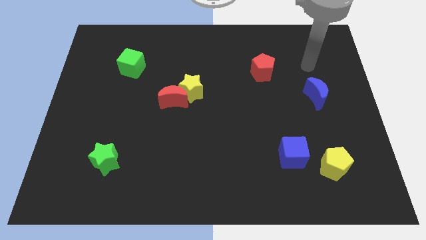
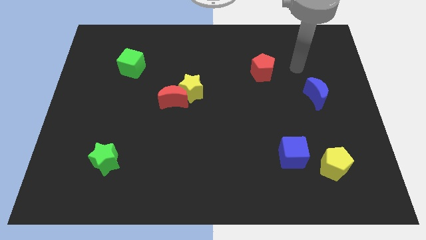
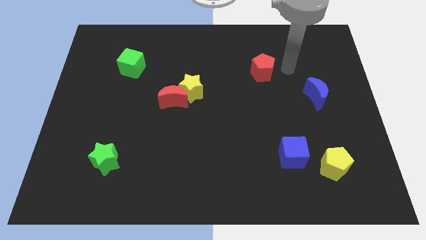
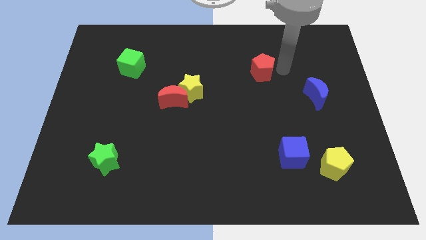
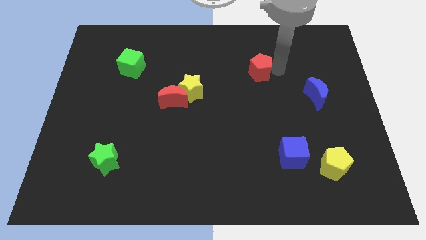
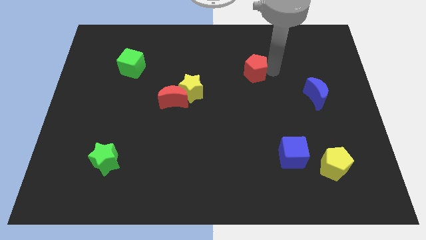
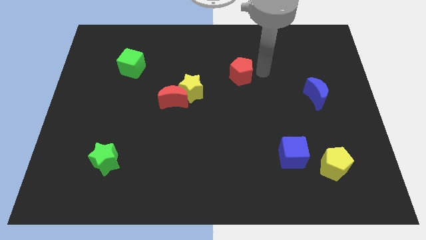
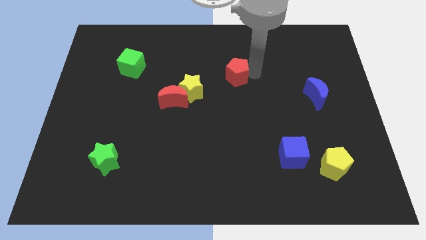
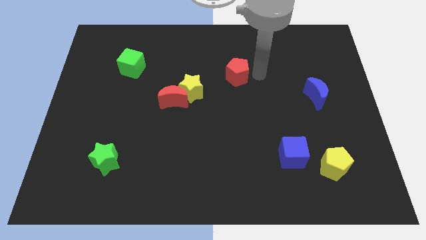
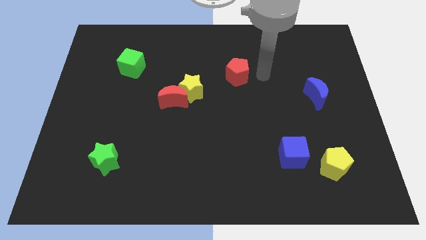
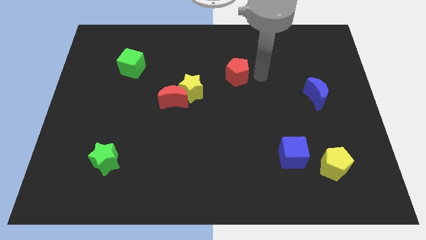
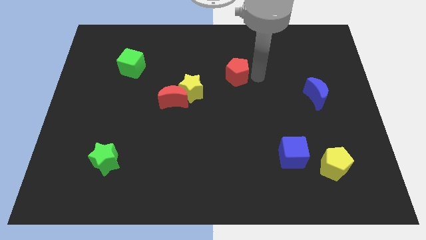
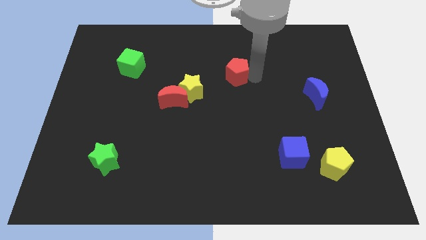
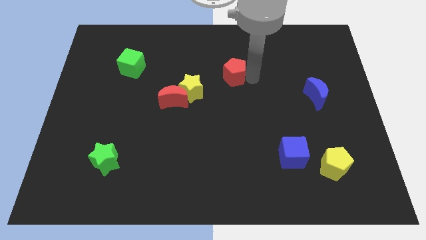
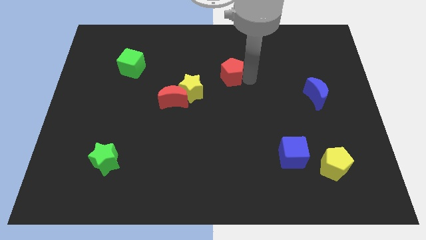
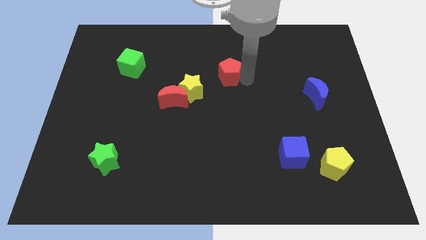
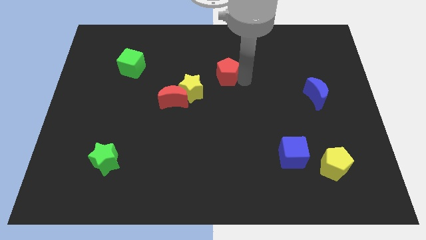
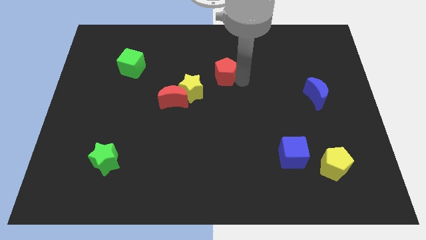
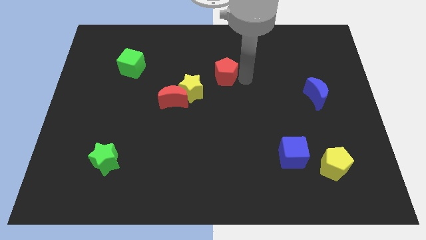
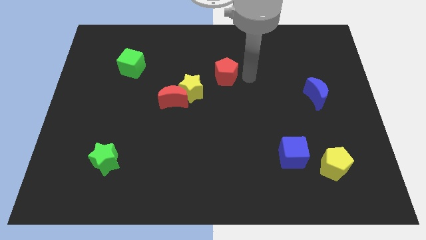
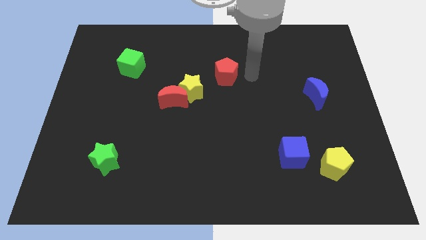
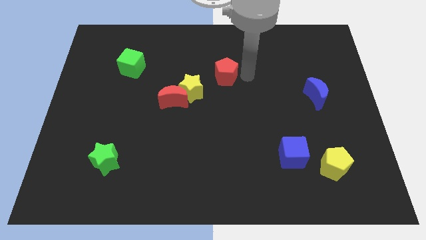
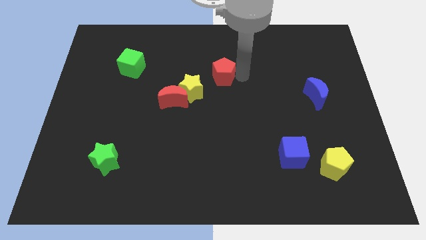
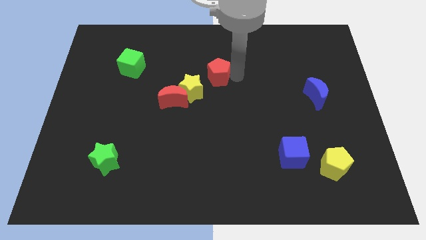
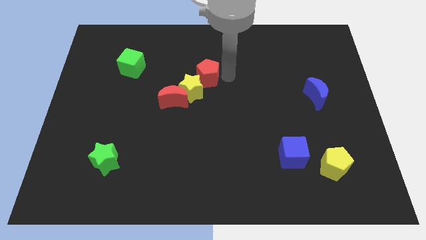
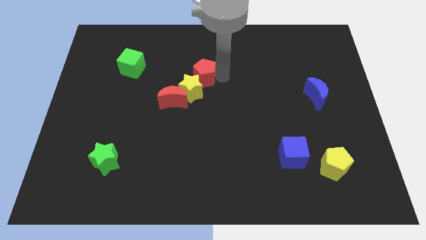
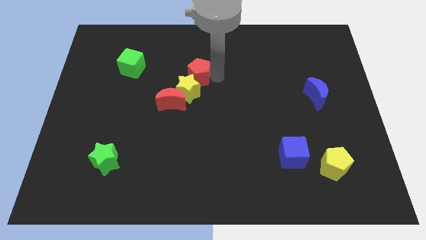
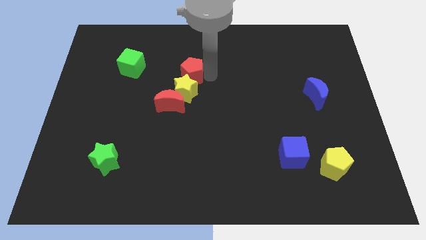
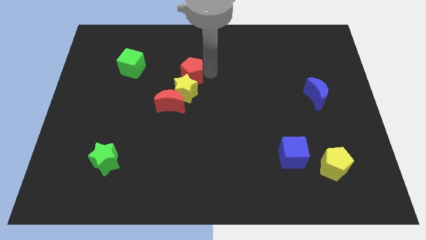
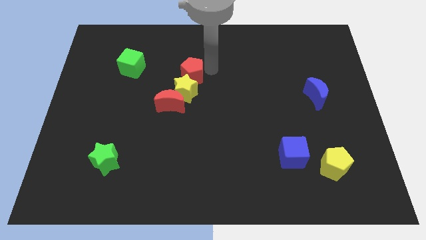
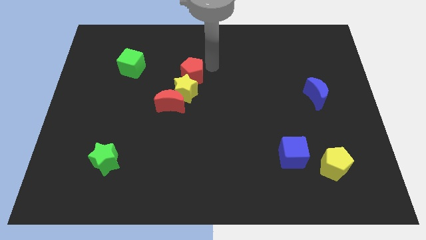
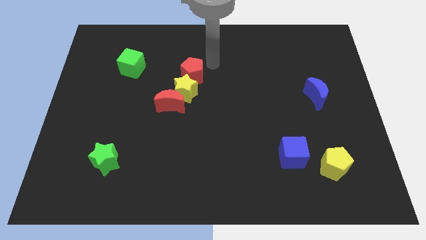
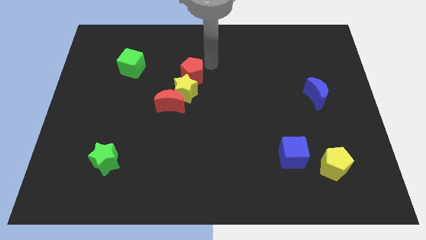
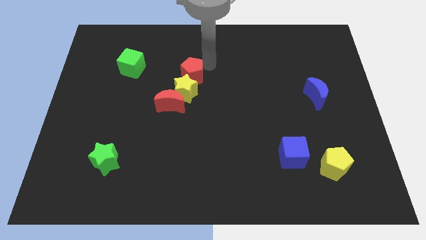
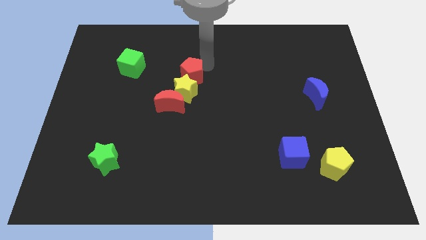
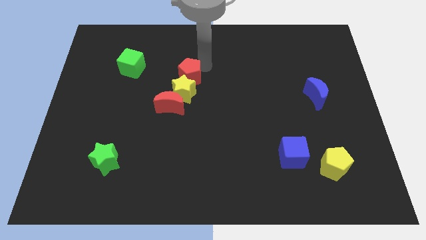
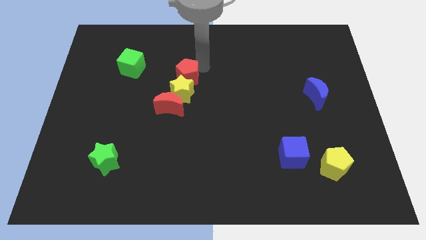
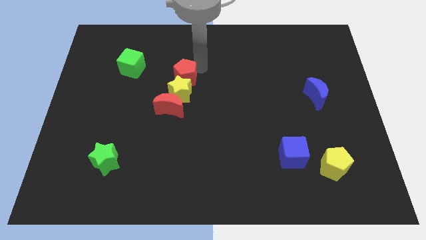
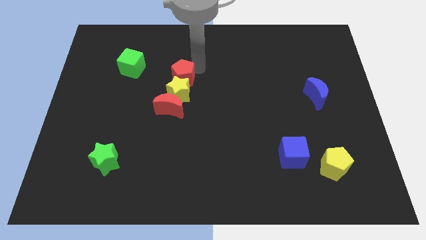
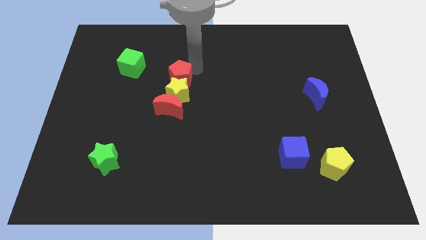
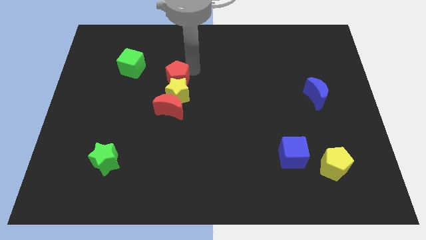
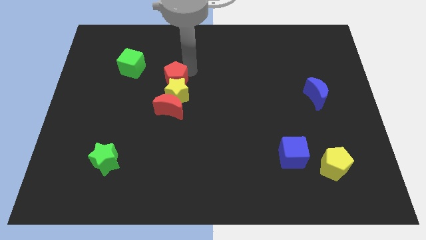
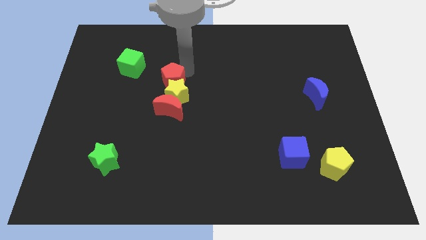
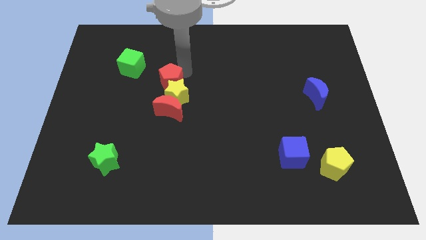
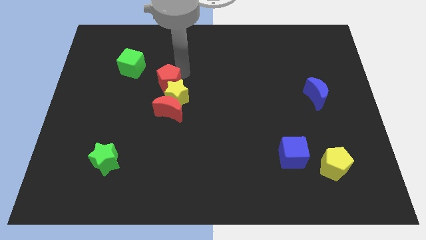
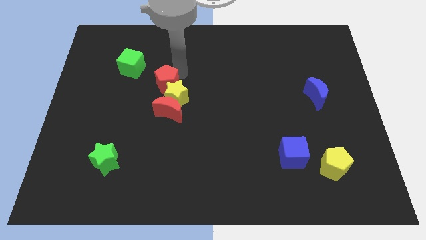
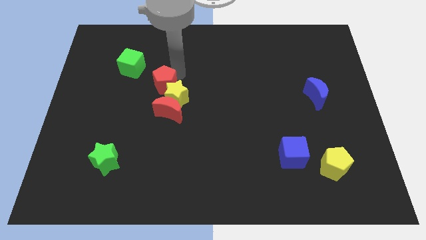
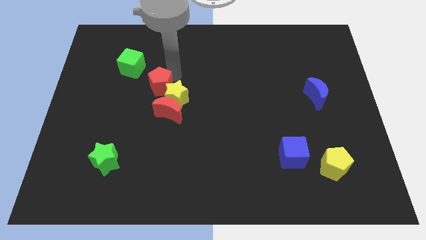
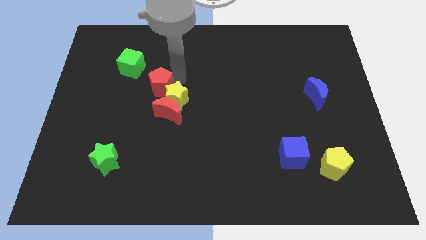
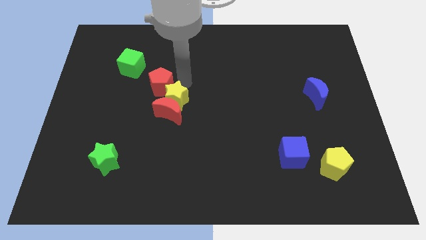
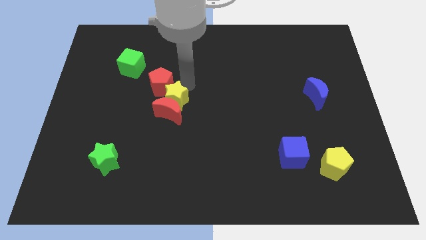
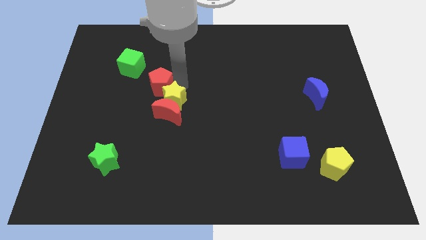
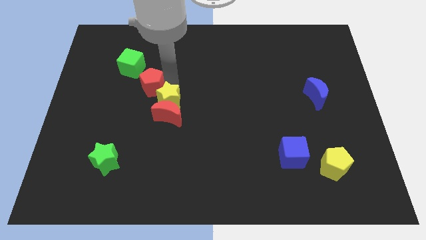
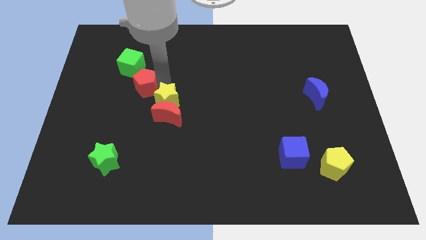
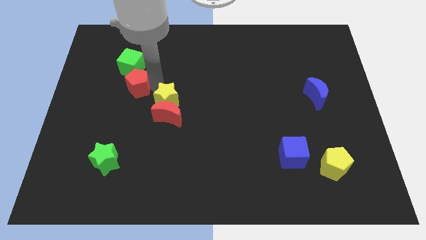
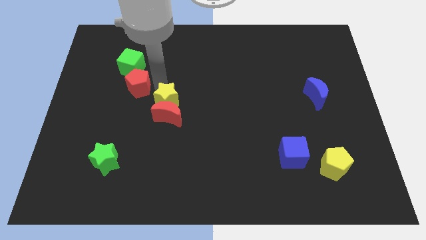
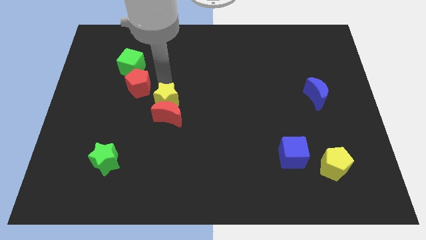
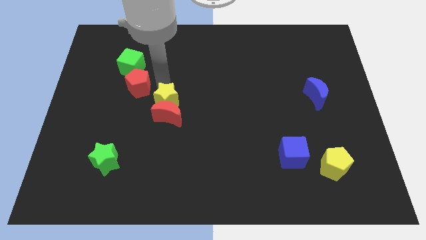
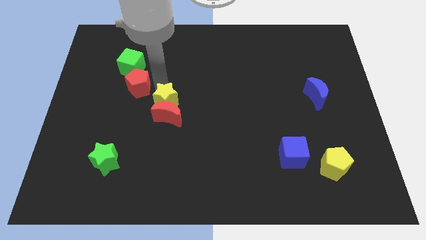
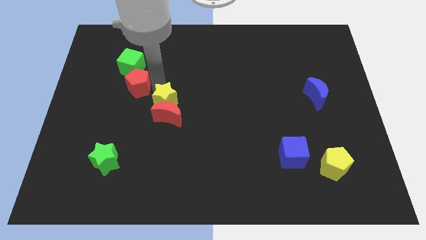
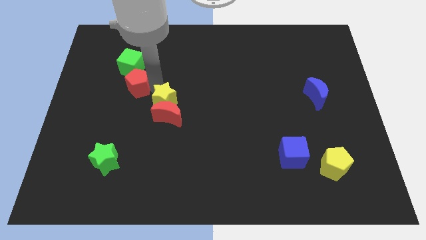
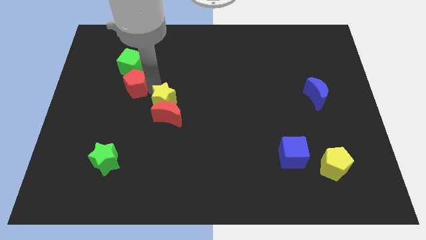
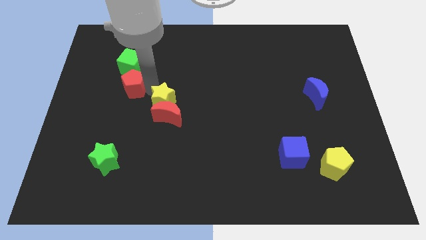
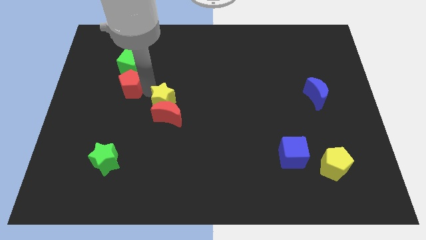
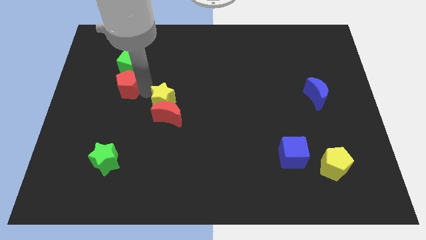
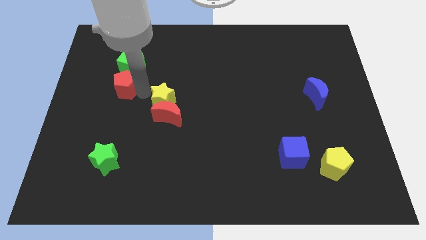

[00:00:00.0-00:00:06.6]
slide the red pentagon to the bottom left side of the green cube
